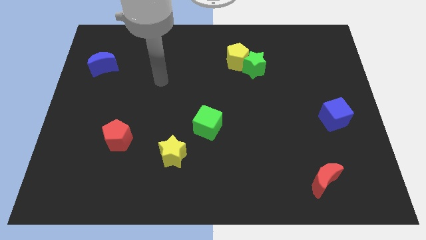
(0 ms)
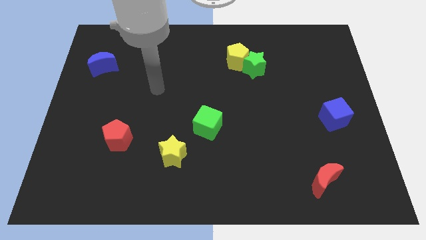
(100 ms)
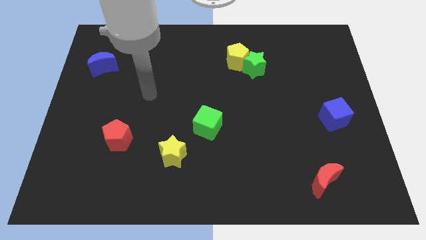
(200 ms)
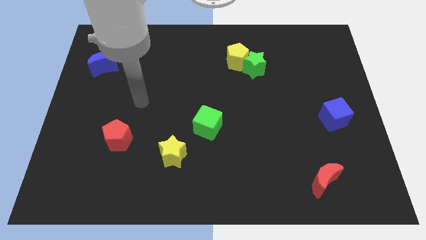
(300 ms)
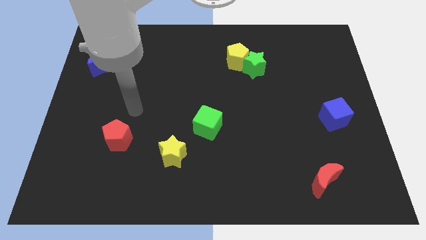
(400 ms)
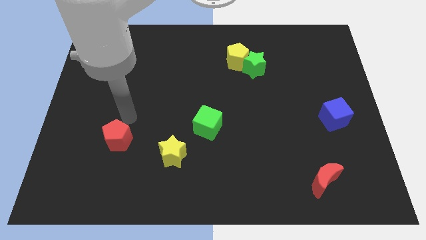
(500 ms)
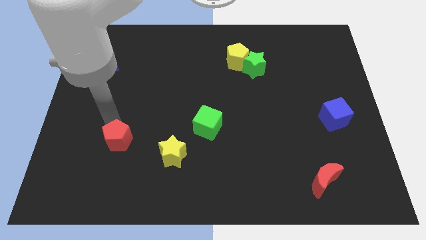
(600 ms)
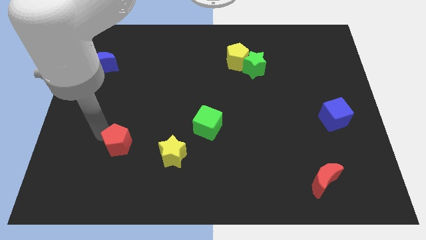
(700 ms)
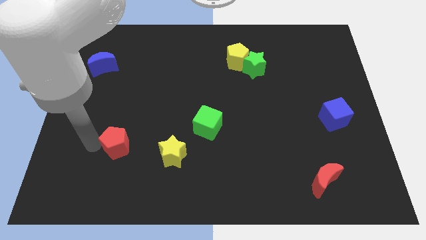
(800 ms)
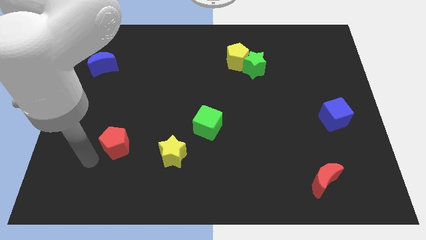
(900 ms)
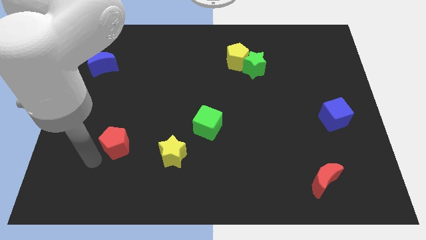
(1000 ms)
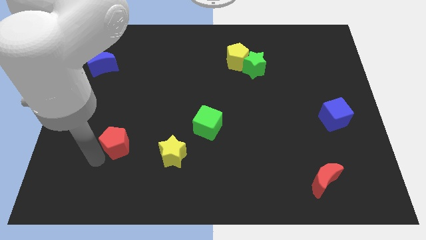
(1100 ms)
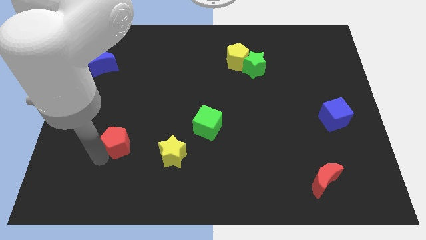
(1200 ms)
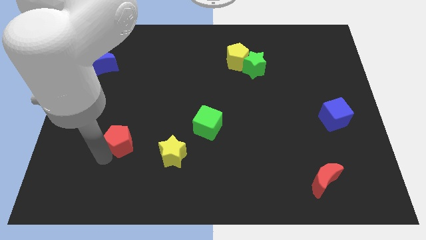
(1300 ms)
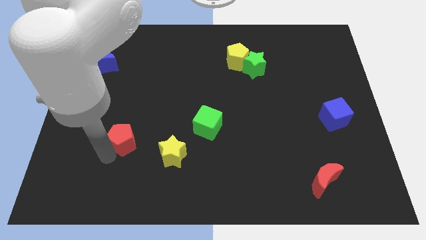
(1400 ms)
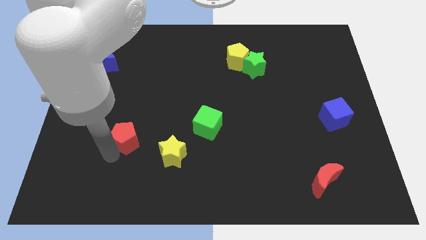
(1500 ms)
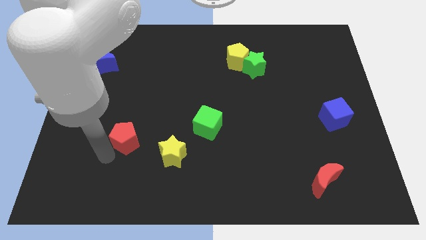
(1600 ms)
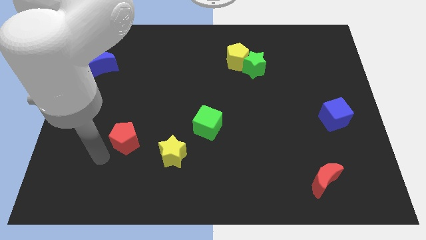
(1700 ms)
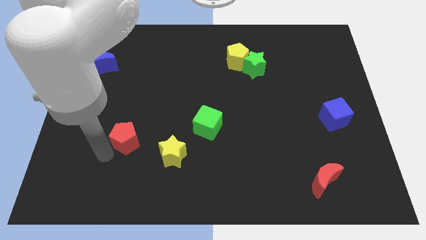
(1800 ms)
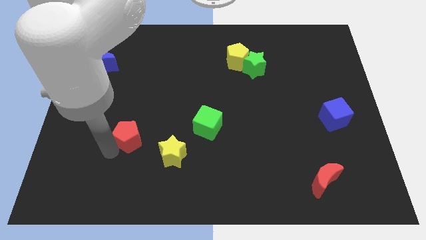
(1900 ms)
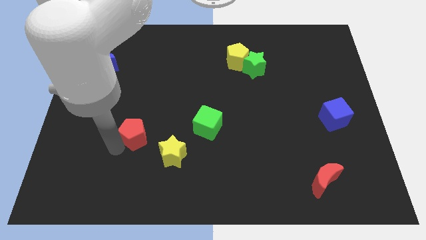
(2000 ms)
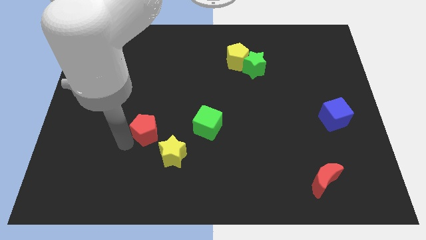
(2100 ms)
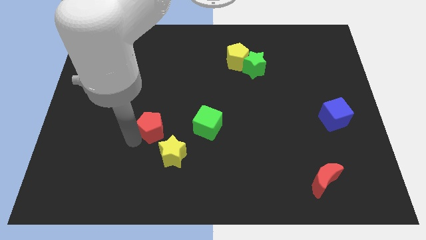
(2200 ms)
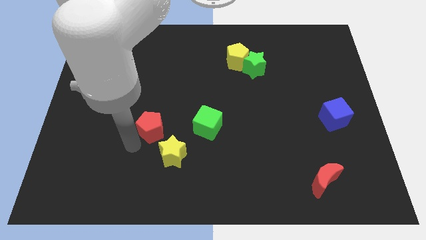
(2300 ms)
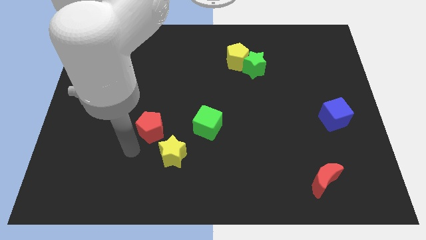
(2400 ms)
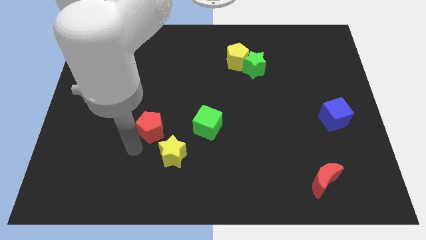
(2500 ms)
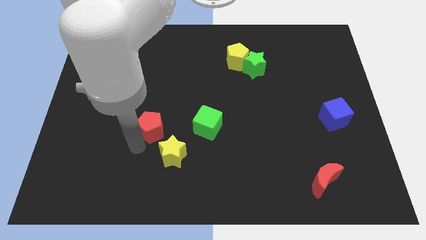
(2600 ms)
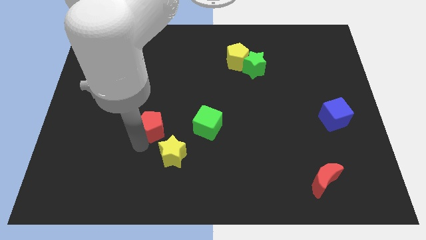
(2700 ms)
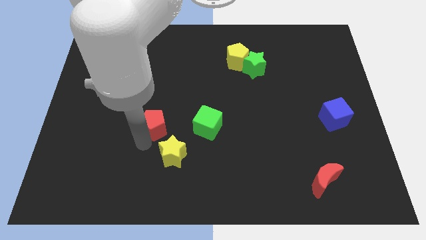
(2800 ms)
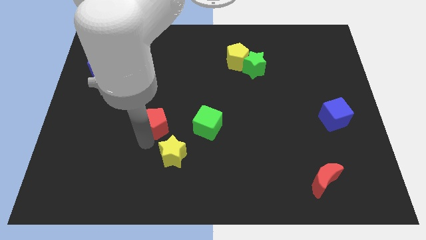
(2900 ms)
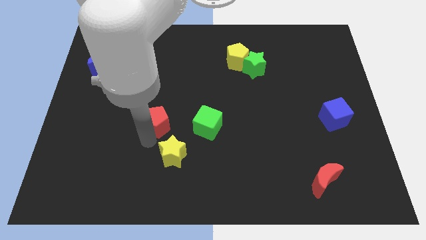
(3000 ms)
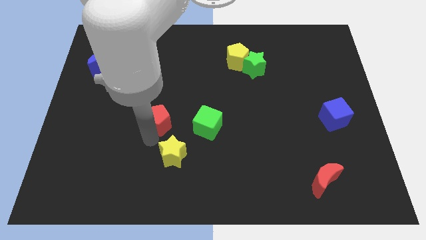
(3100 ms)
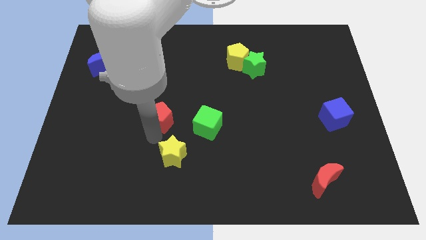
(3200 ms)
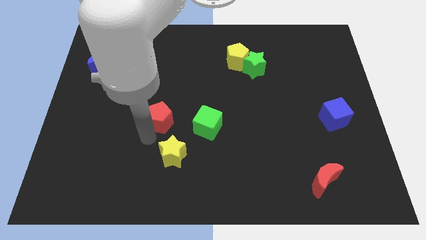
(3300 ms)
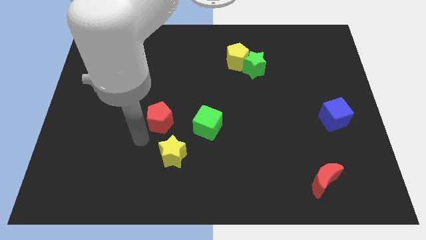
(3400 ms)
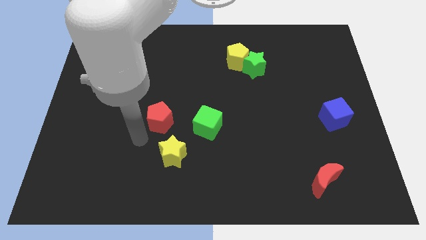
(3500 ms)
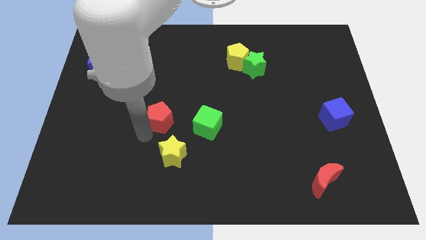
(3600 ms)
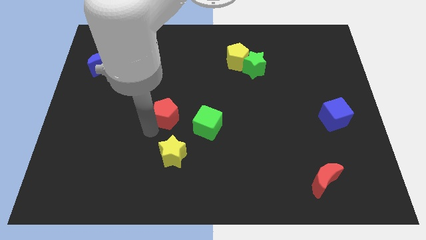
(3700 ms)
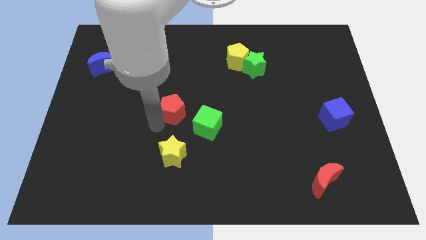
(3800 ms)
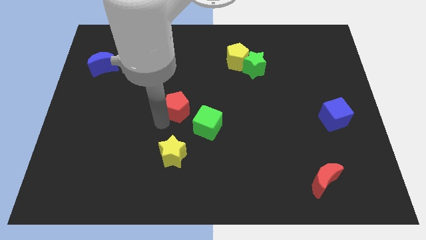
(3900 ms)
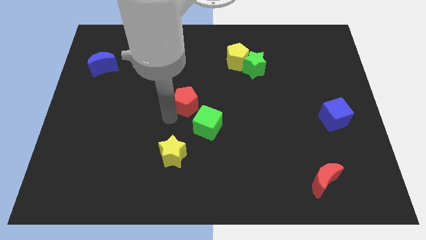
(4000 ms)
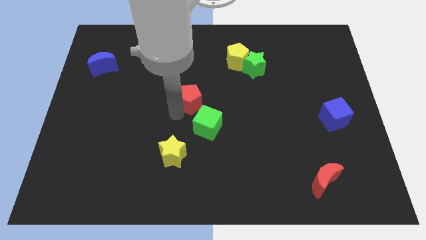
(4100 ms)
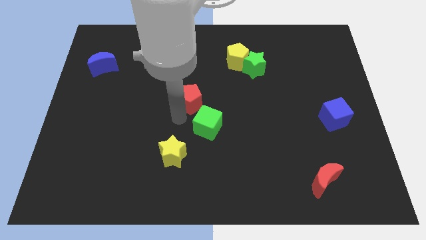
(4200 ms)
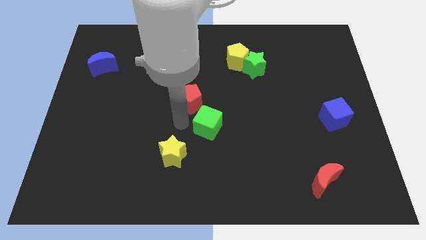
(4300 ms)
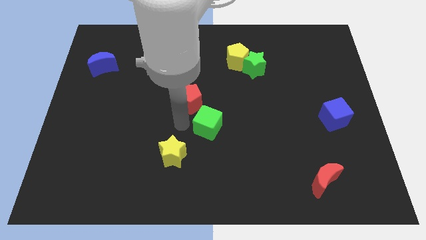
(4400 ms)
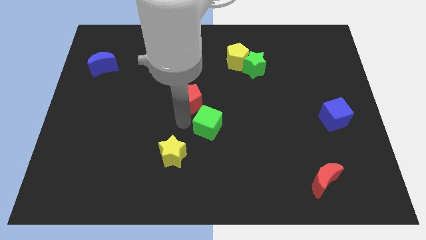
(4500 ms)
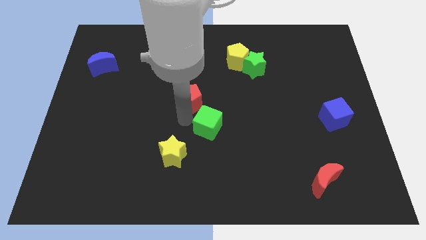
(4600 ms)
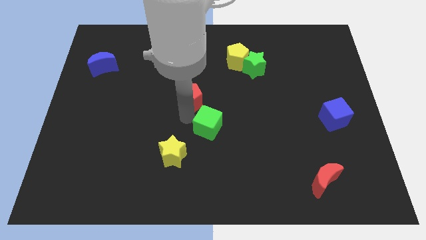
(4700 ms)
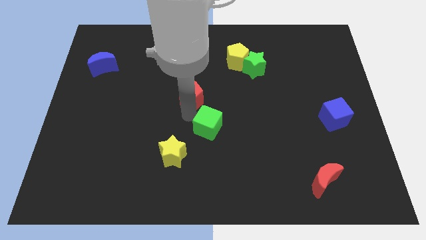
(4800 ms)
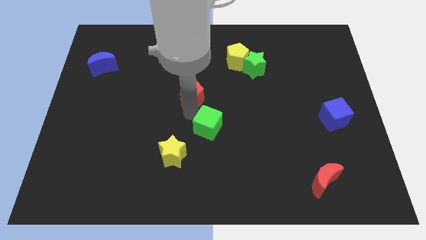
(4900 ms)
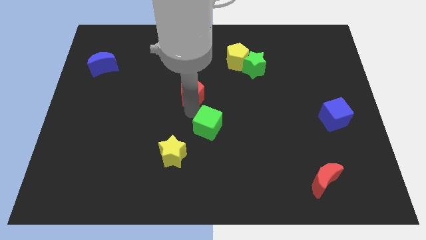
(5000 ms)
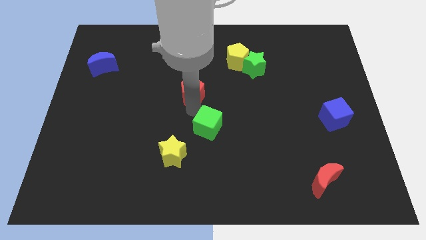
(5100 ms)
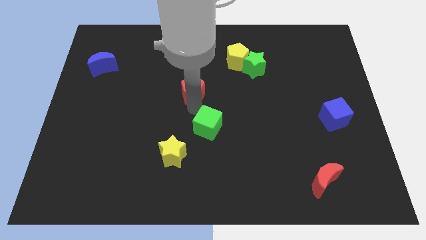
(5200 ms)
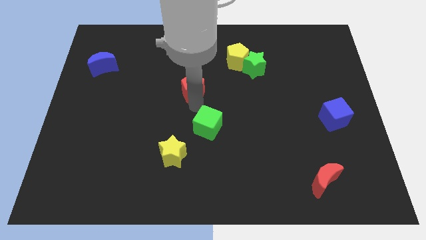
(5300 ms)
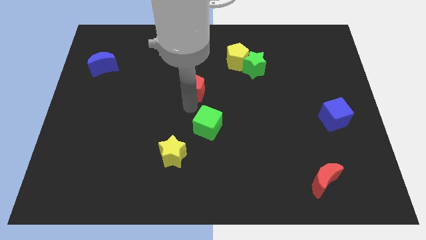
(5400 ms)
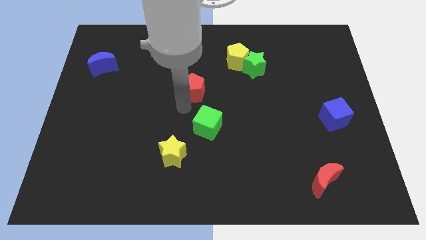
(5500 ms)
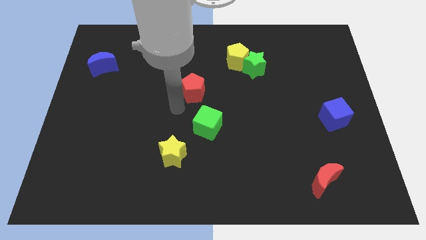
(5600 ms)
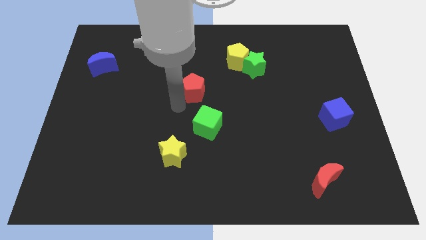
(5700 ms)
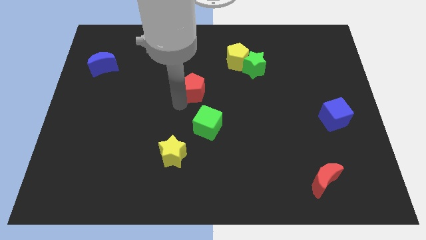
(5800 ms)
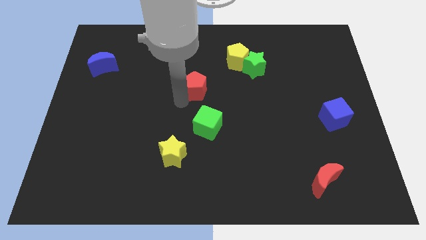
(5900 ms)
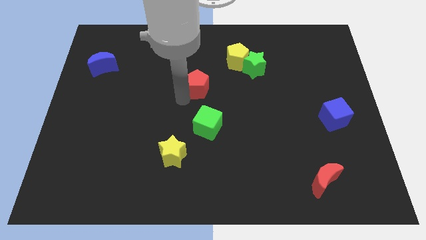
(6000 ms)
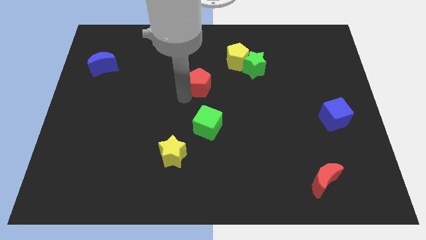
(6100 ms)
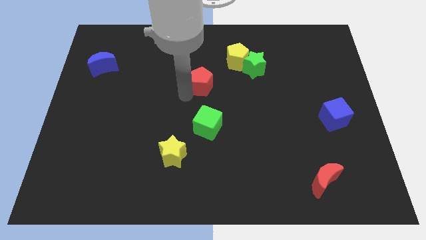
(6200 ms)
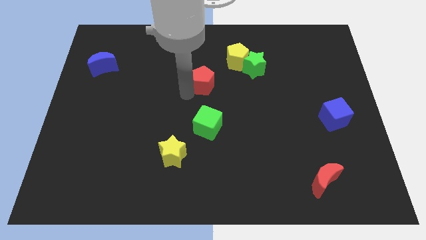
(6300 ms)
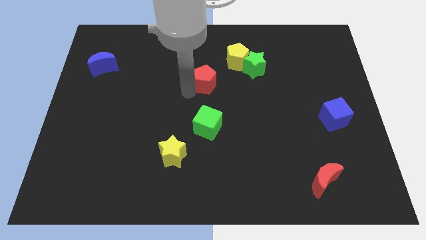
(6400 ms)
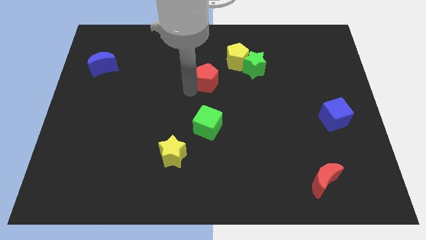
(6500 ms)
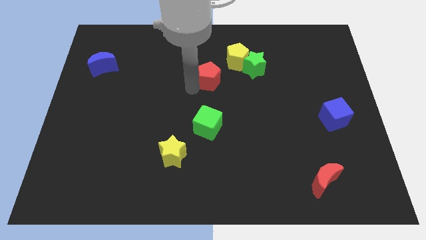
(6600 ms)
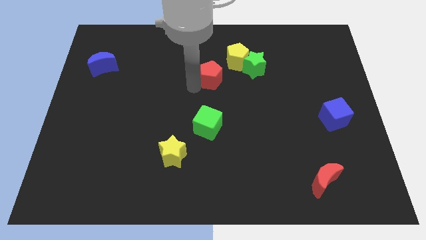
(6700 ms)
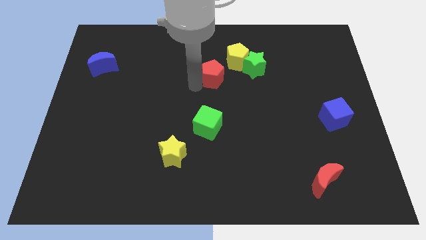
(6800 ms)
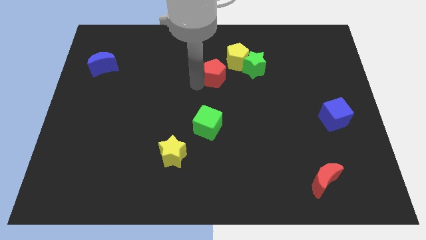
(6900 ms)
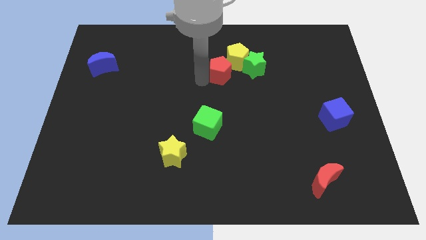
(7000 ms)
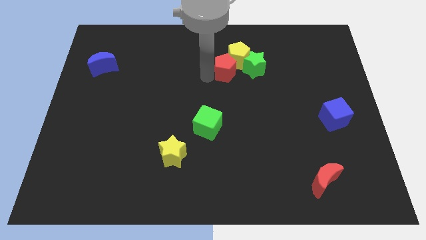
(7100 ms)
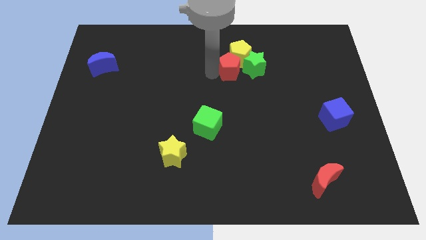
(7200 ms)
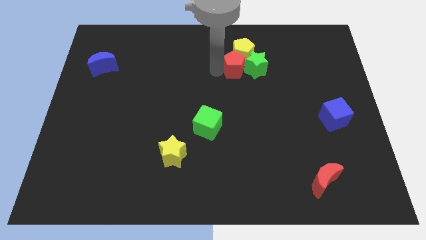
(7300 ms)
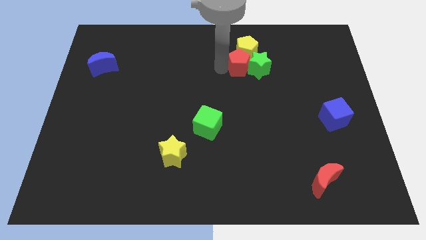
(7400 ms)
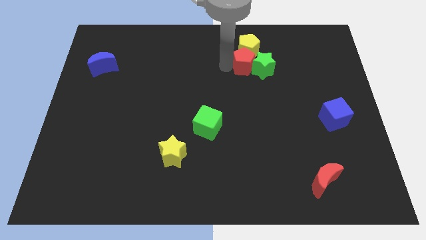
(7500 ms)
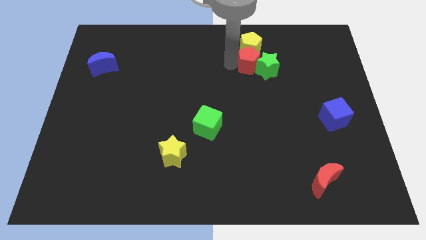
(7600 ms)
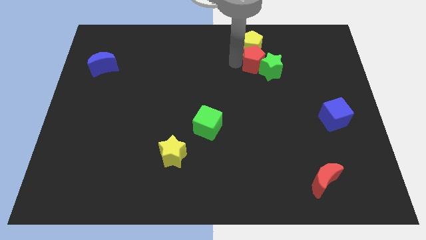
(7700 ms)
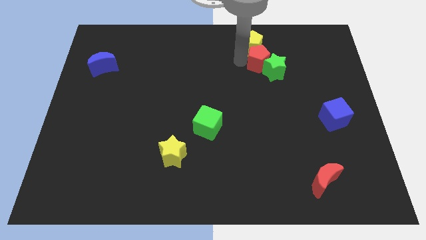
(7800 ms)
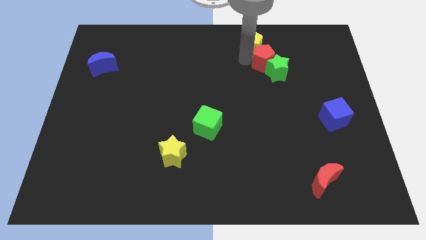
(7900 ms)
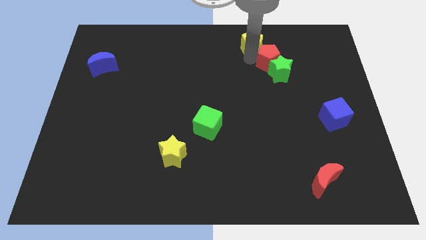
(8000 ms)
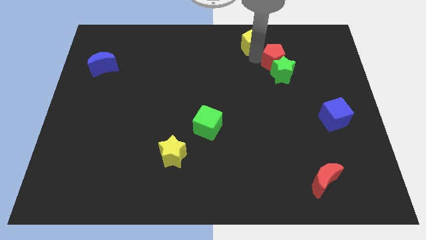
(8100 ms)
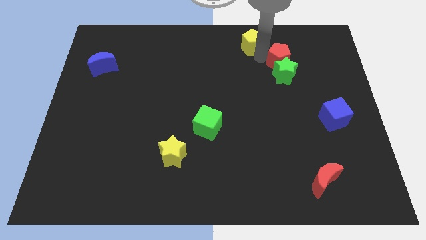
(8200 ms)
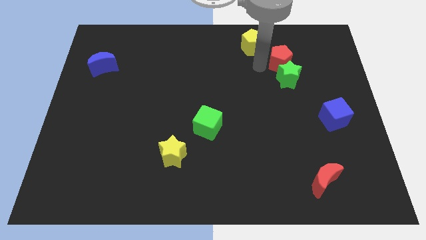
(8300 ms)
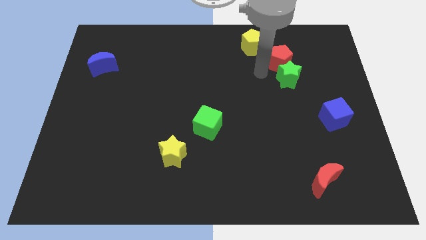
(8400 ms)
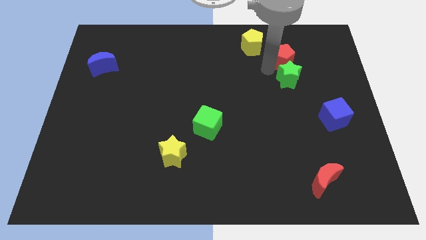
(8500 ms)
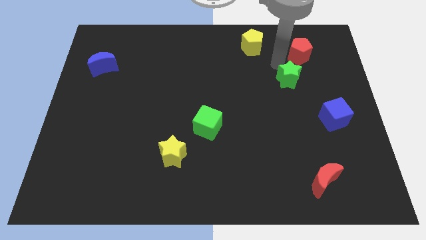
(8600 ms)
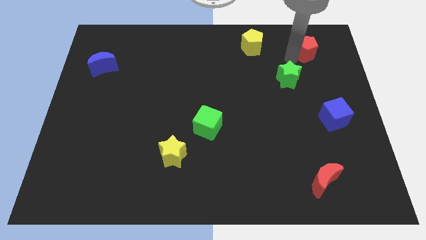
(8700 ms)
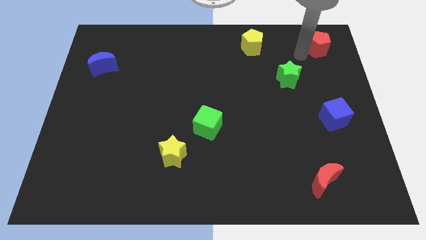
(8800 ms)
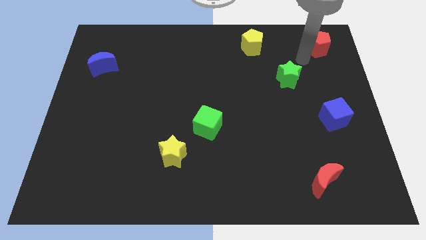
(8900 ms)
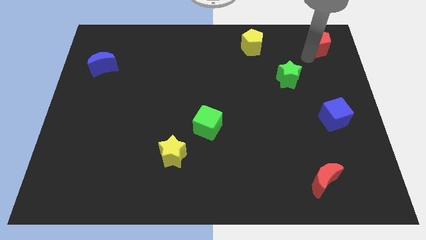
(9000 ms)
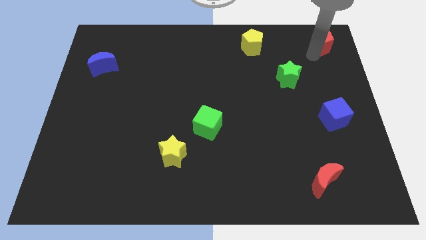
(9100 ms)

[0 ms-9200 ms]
put the red pentagon to the upper right corner
